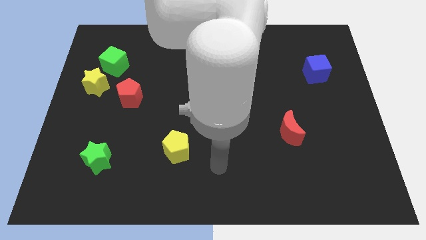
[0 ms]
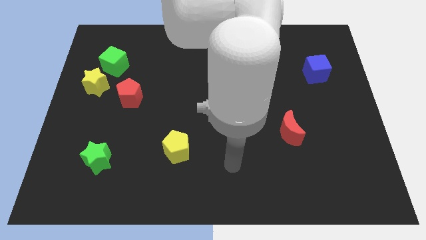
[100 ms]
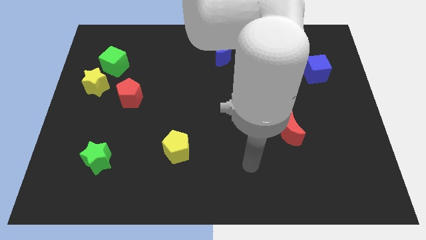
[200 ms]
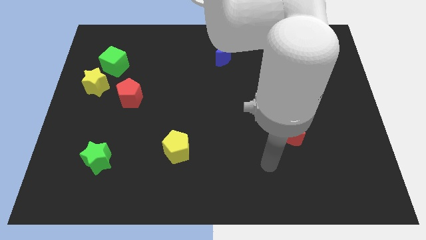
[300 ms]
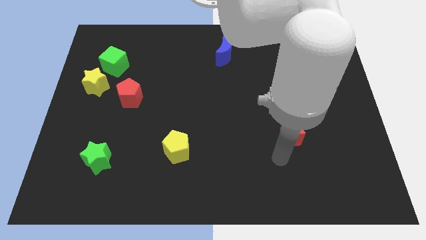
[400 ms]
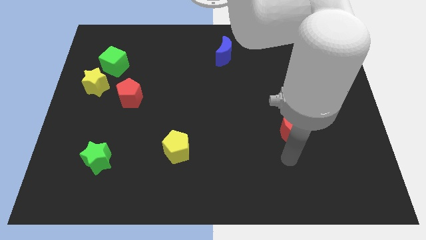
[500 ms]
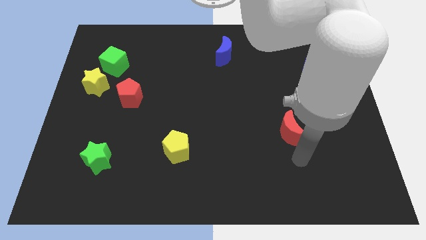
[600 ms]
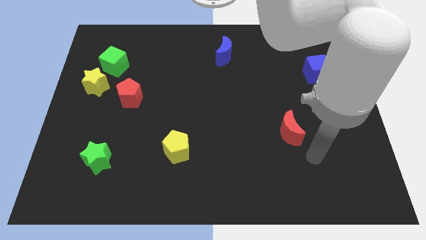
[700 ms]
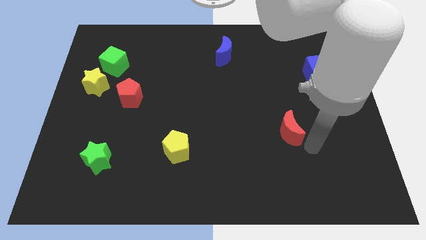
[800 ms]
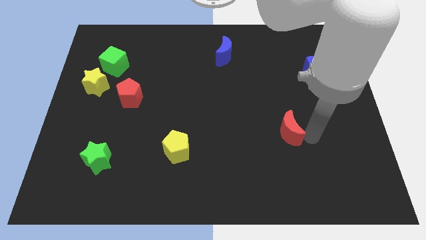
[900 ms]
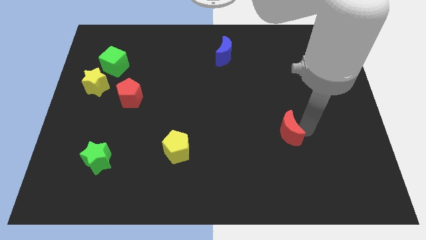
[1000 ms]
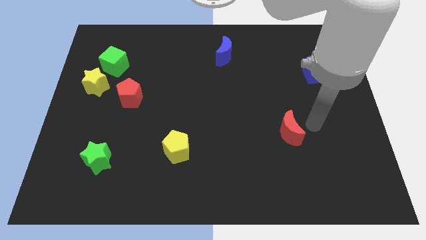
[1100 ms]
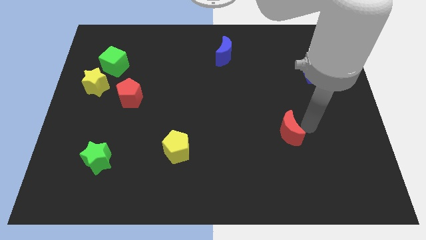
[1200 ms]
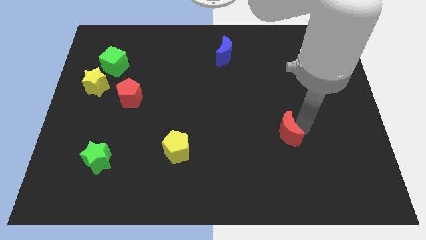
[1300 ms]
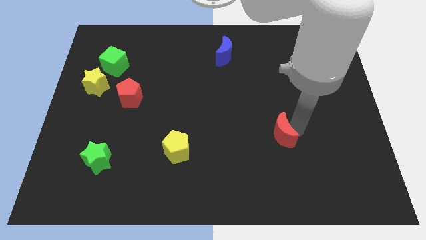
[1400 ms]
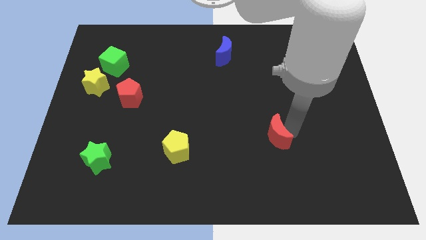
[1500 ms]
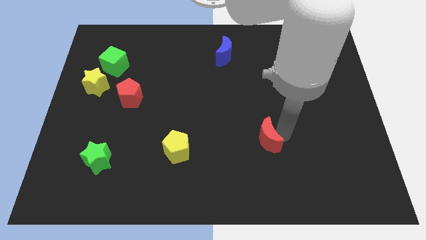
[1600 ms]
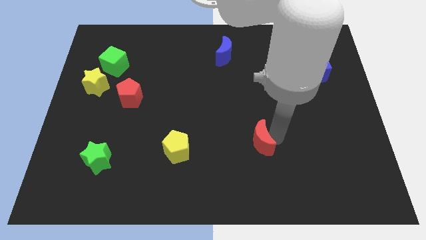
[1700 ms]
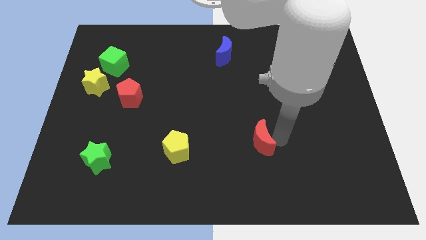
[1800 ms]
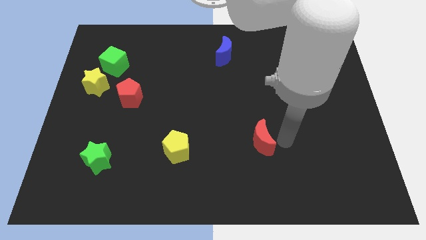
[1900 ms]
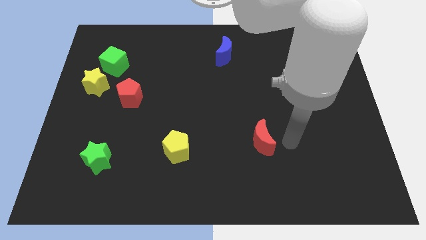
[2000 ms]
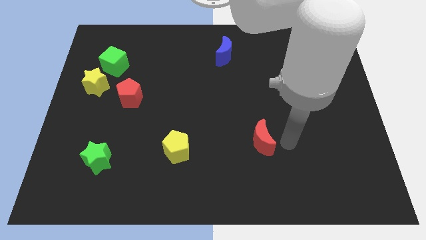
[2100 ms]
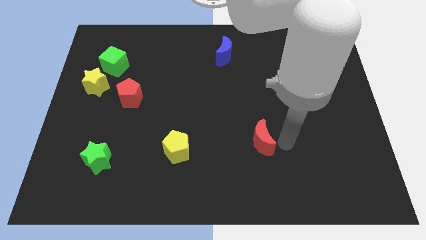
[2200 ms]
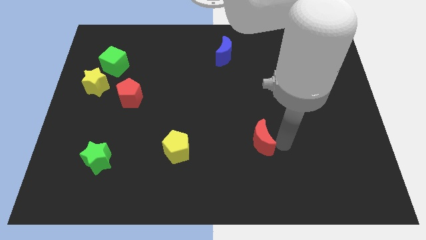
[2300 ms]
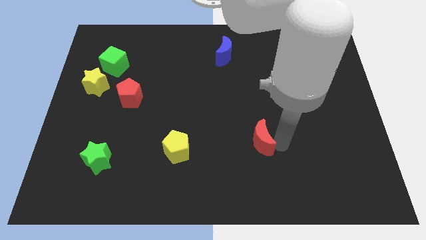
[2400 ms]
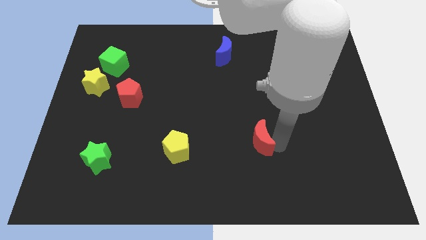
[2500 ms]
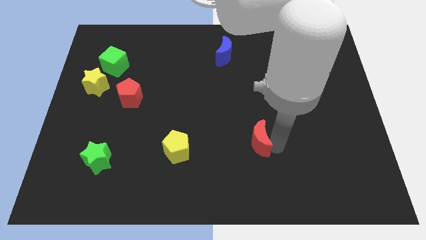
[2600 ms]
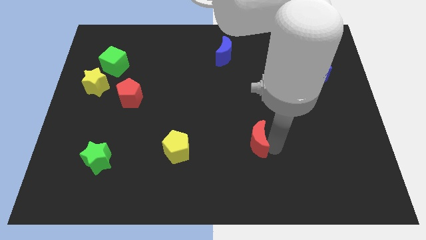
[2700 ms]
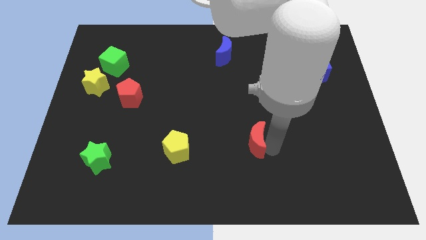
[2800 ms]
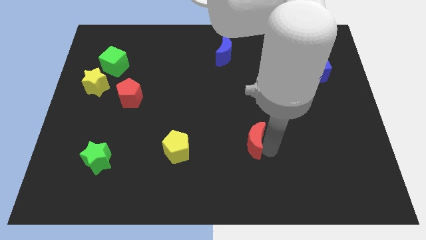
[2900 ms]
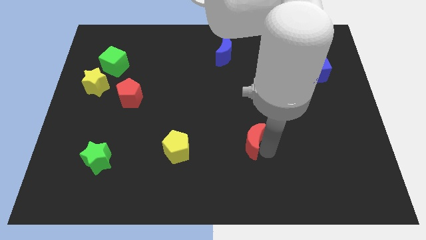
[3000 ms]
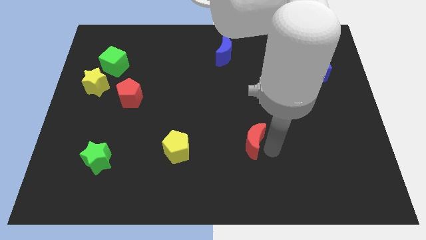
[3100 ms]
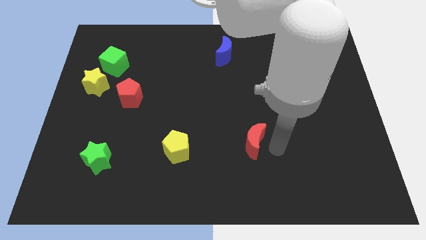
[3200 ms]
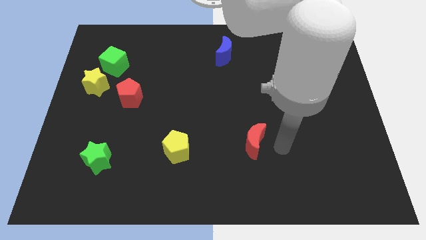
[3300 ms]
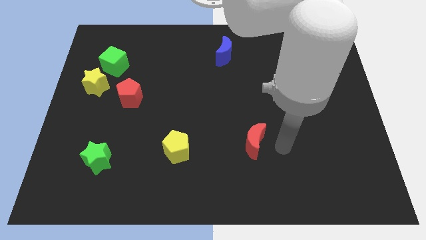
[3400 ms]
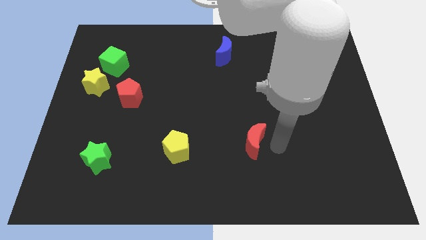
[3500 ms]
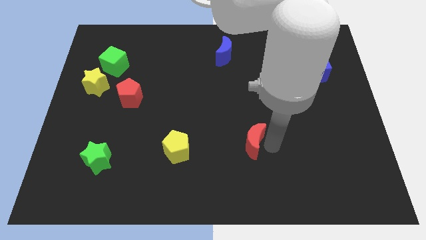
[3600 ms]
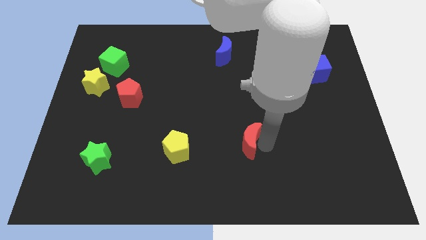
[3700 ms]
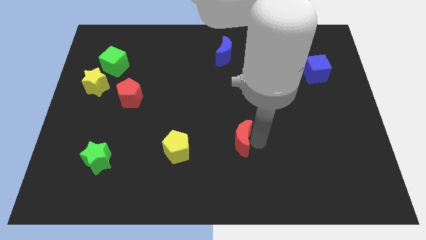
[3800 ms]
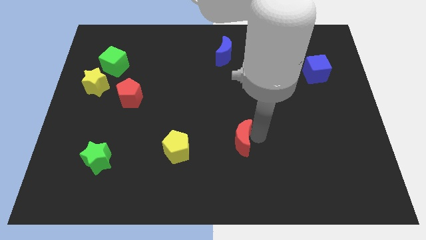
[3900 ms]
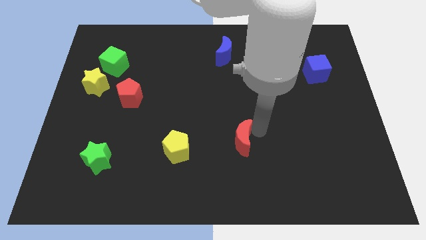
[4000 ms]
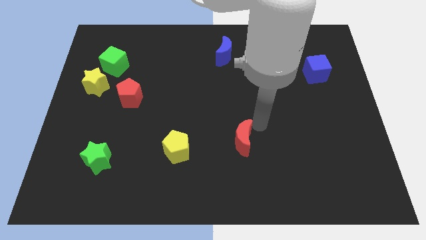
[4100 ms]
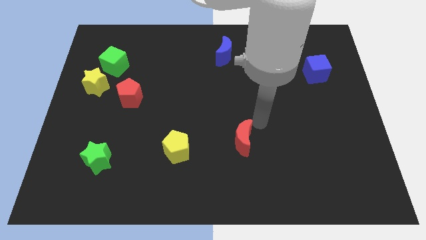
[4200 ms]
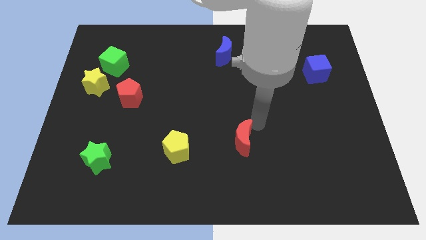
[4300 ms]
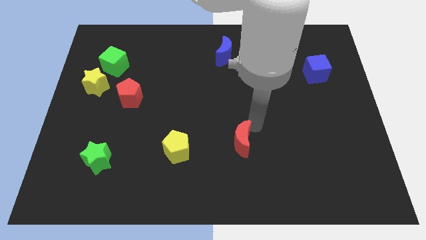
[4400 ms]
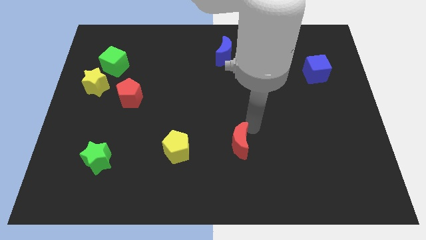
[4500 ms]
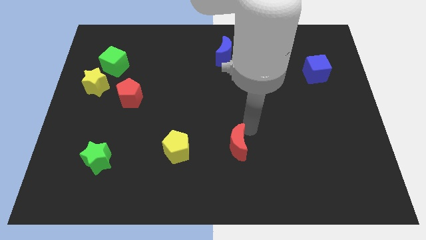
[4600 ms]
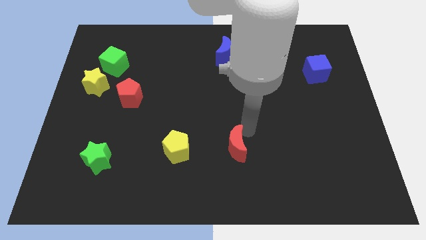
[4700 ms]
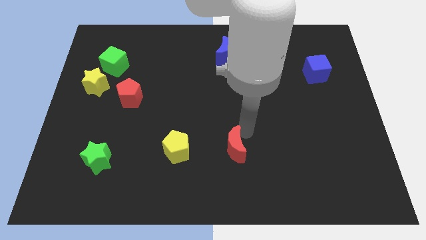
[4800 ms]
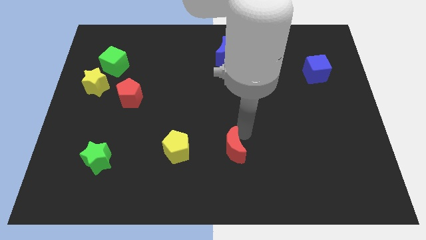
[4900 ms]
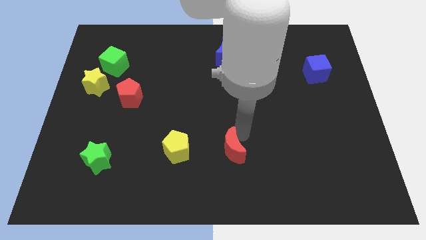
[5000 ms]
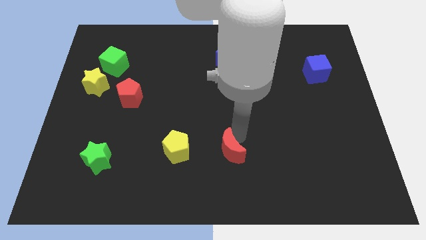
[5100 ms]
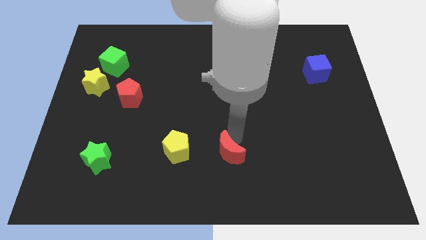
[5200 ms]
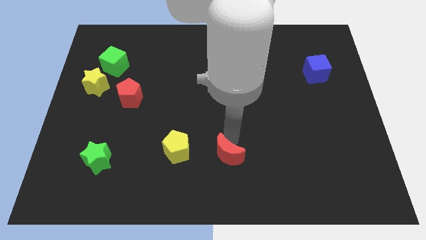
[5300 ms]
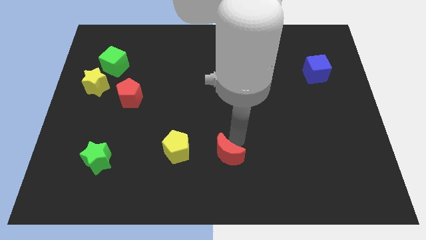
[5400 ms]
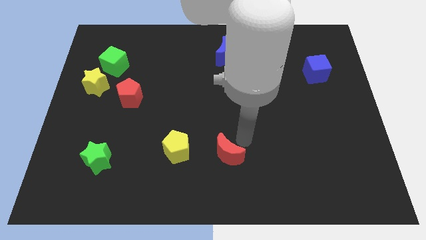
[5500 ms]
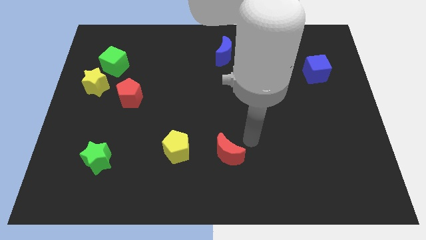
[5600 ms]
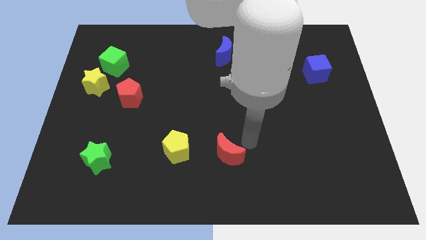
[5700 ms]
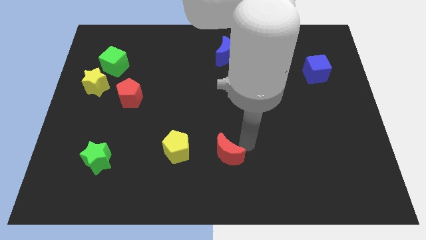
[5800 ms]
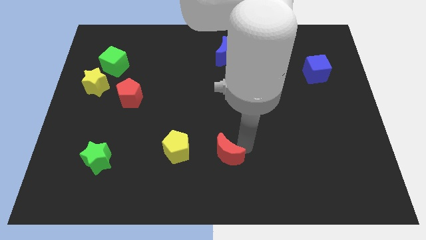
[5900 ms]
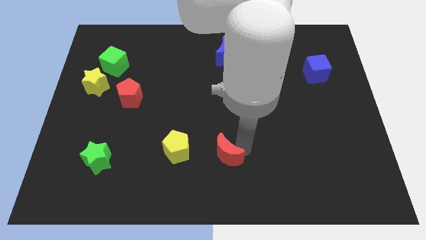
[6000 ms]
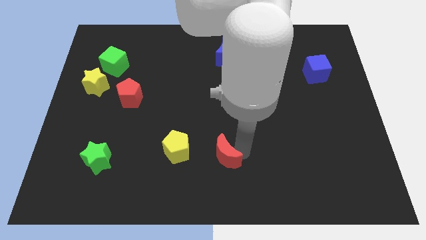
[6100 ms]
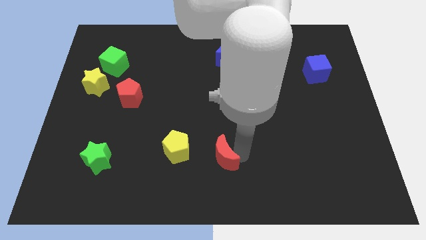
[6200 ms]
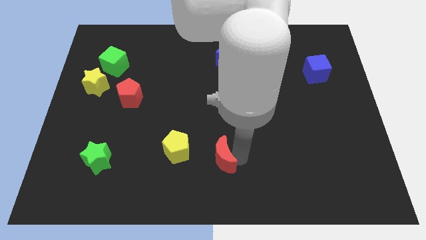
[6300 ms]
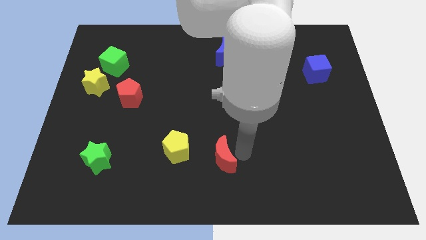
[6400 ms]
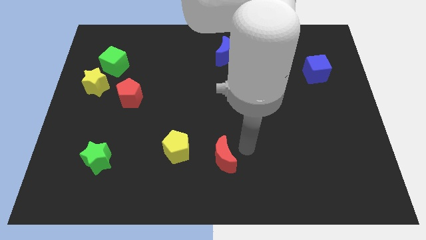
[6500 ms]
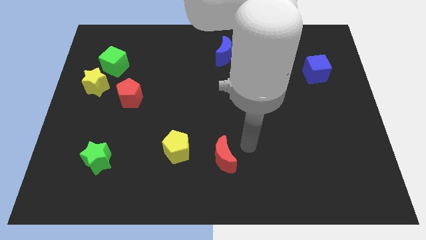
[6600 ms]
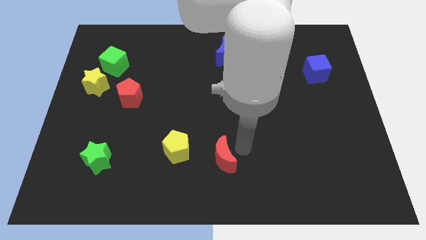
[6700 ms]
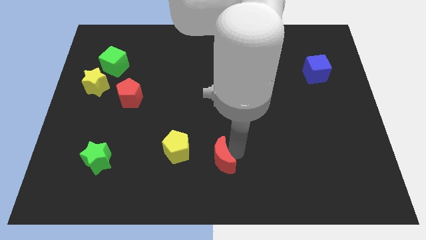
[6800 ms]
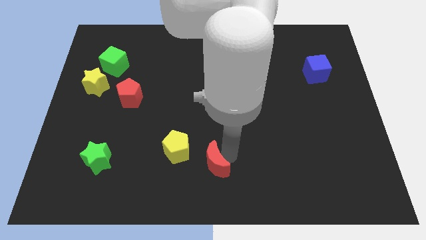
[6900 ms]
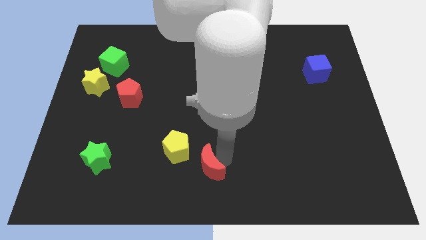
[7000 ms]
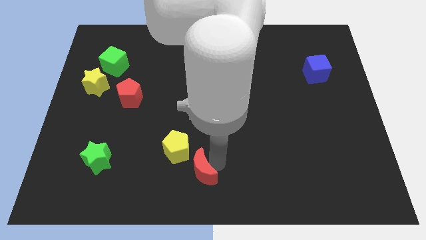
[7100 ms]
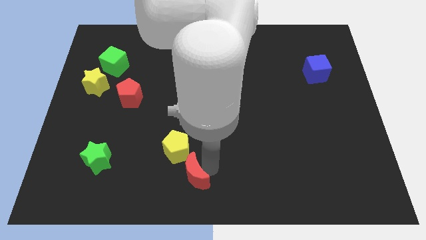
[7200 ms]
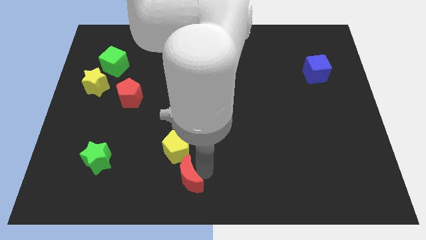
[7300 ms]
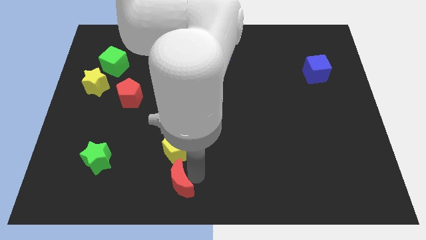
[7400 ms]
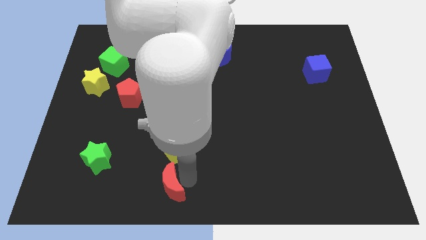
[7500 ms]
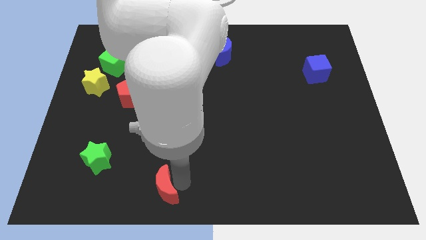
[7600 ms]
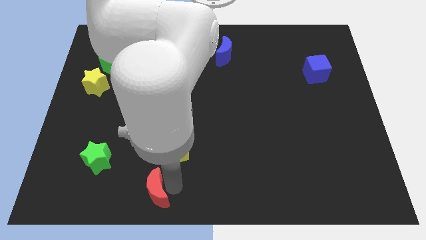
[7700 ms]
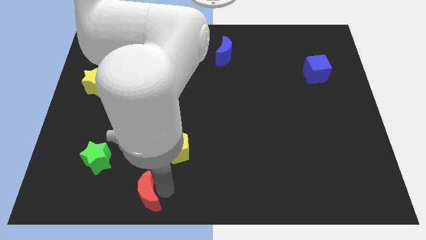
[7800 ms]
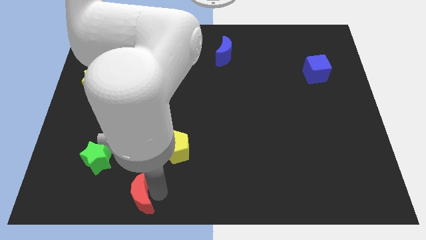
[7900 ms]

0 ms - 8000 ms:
put the red moon to the bottom right side of the green star
